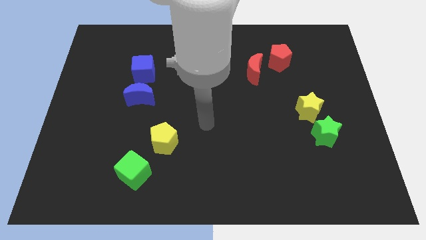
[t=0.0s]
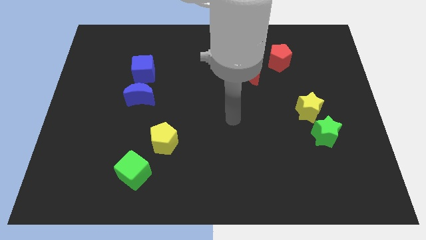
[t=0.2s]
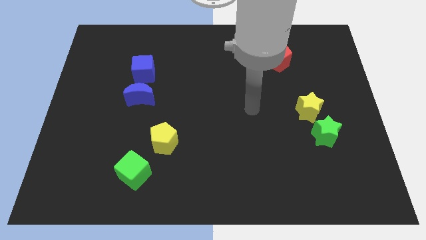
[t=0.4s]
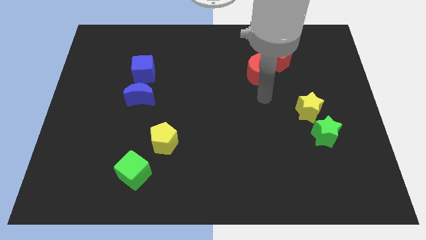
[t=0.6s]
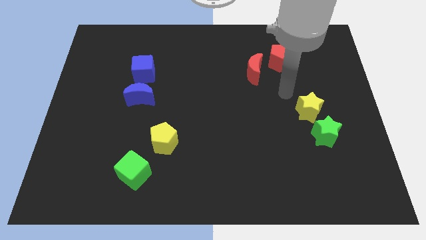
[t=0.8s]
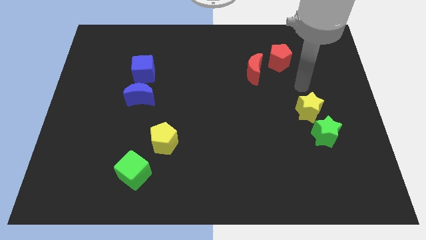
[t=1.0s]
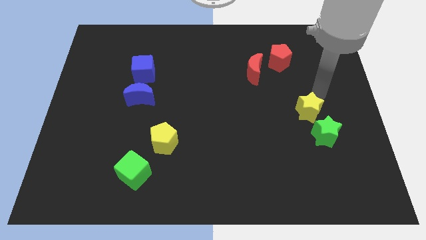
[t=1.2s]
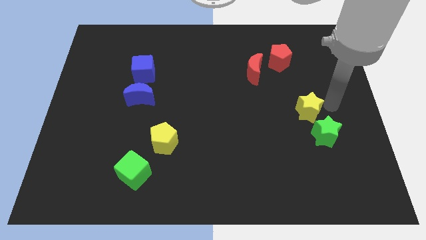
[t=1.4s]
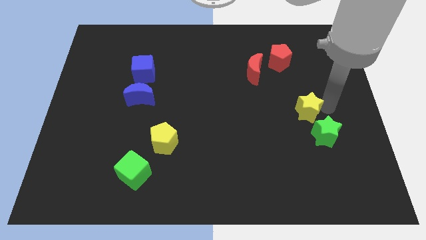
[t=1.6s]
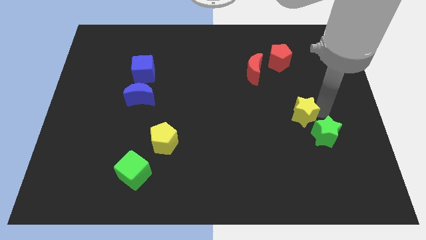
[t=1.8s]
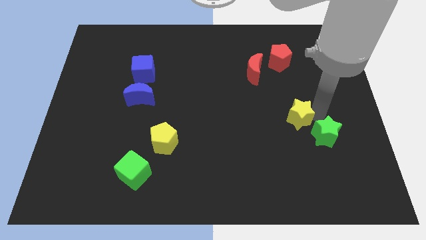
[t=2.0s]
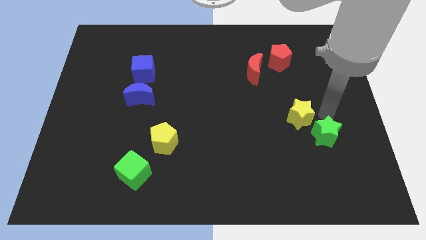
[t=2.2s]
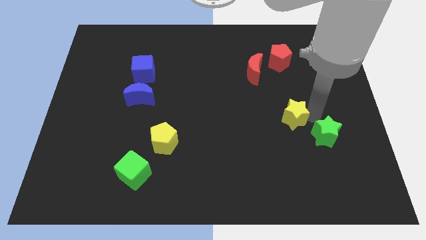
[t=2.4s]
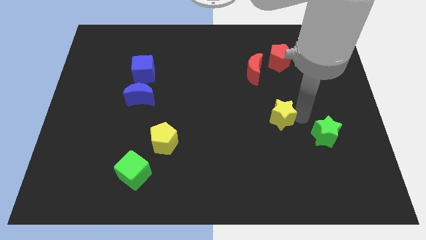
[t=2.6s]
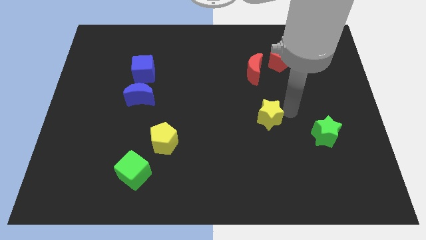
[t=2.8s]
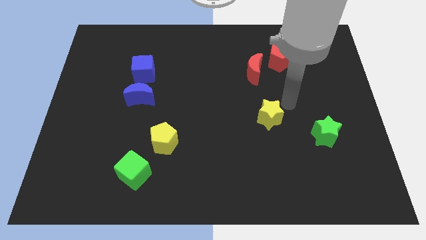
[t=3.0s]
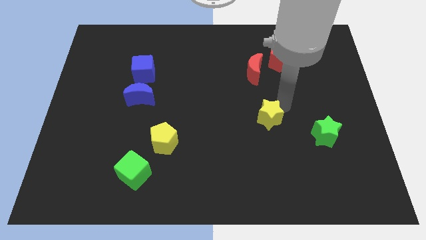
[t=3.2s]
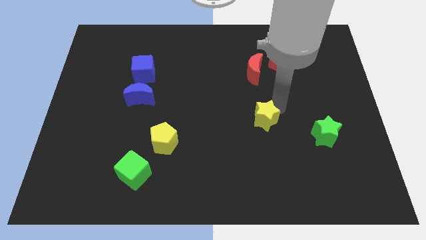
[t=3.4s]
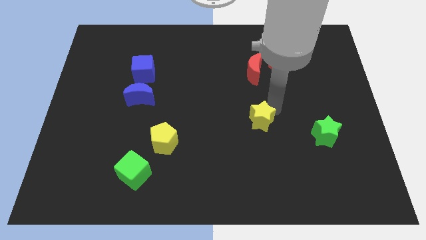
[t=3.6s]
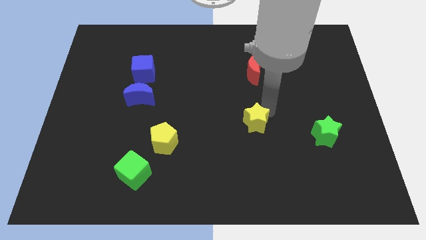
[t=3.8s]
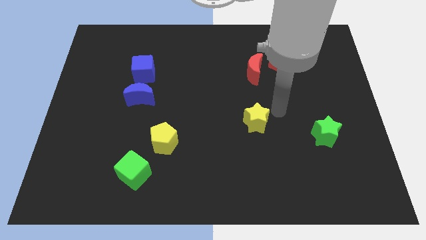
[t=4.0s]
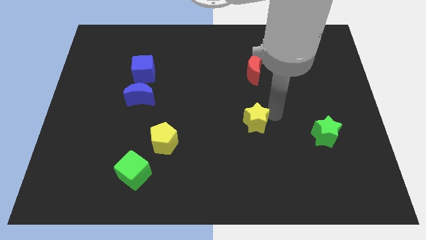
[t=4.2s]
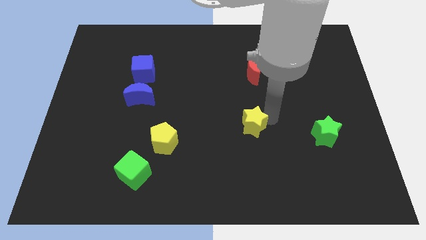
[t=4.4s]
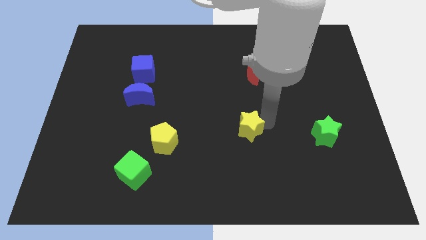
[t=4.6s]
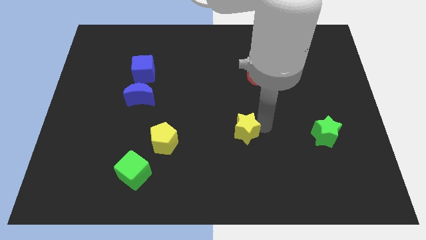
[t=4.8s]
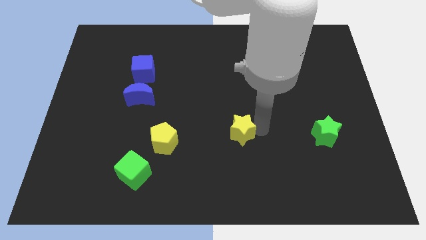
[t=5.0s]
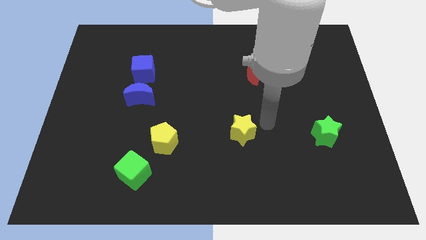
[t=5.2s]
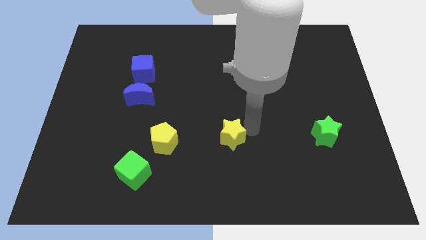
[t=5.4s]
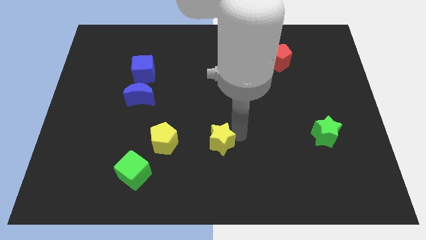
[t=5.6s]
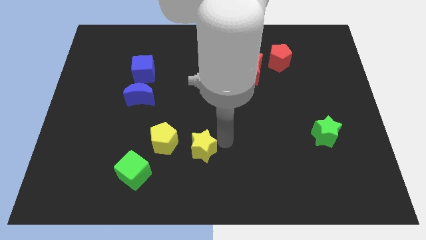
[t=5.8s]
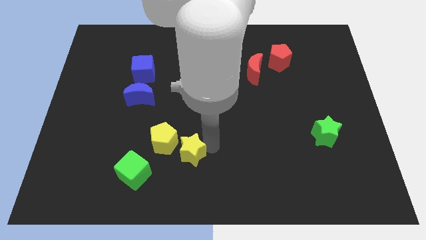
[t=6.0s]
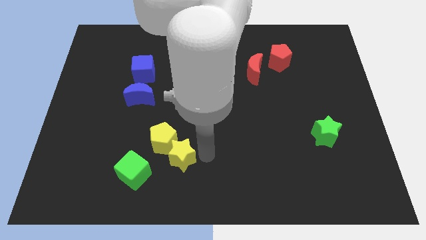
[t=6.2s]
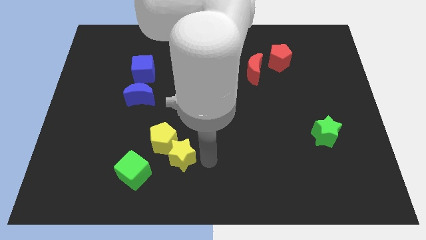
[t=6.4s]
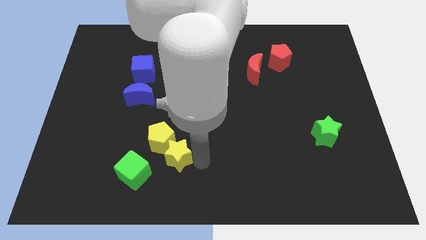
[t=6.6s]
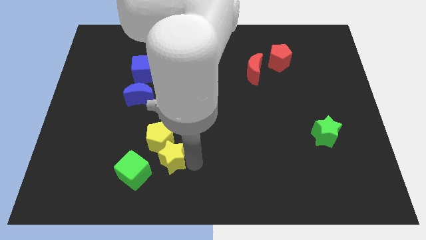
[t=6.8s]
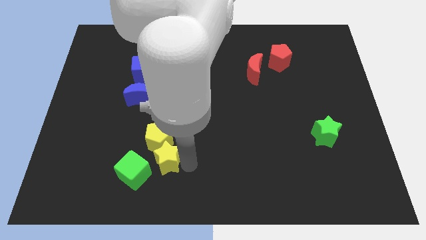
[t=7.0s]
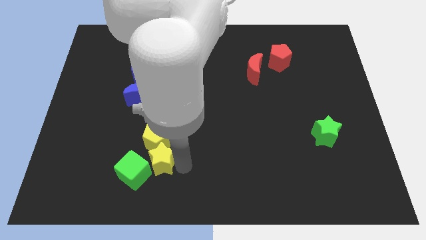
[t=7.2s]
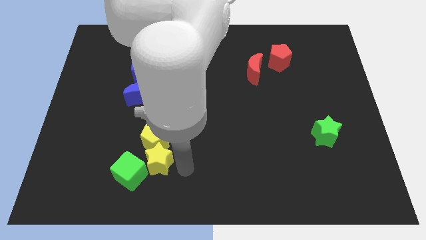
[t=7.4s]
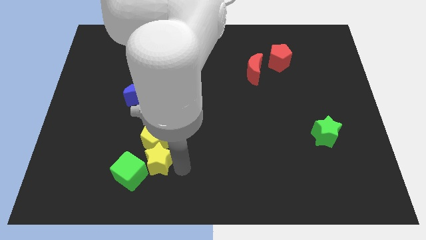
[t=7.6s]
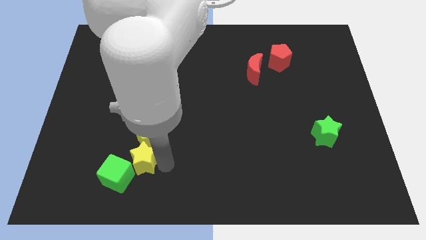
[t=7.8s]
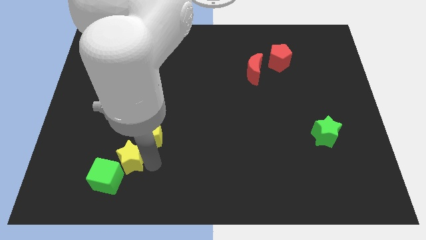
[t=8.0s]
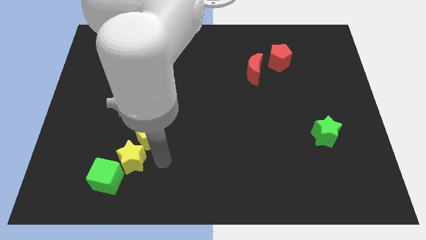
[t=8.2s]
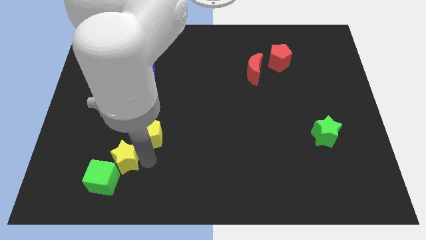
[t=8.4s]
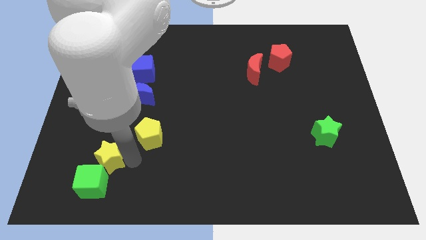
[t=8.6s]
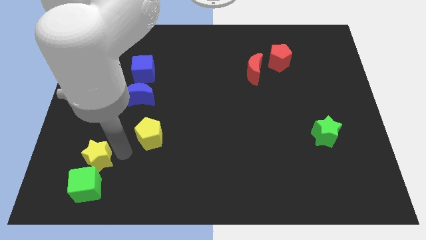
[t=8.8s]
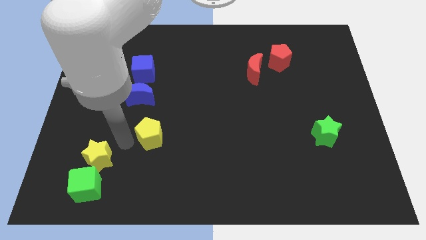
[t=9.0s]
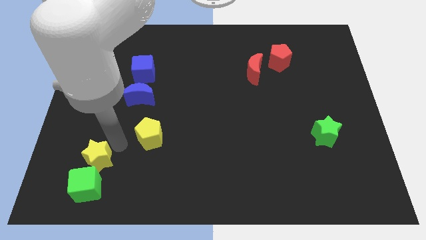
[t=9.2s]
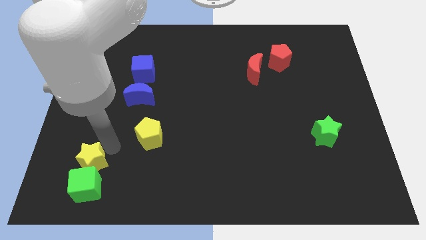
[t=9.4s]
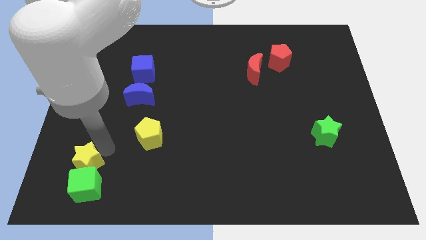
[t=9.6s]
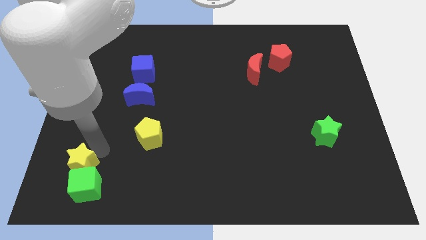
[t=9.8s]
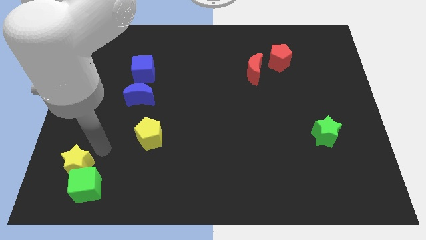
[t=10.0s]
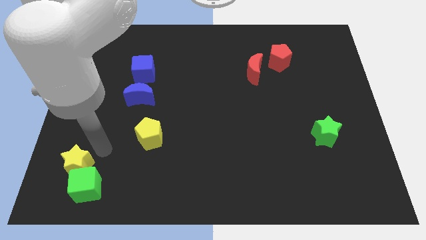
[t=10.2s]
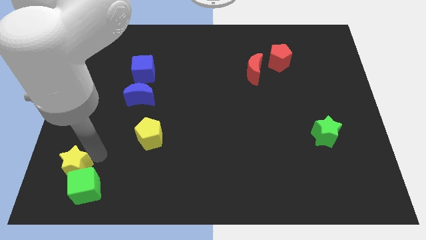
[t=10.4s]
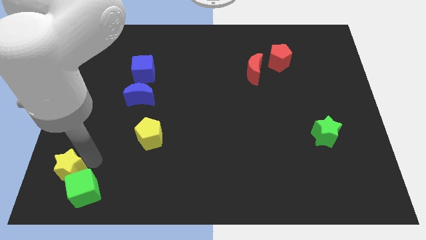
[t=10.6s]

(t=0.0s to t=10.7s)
push the yellow star to the bottom left of the board
